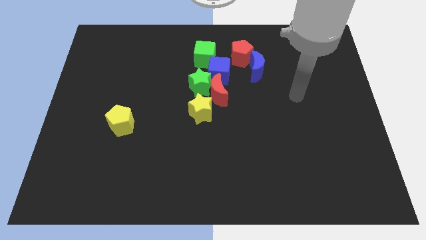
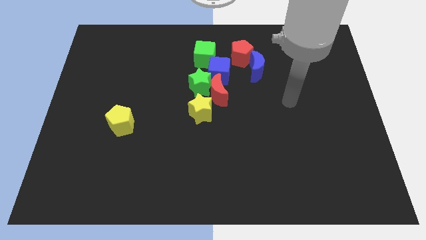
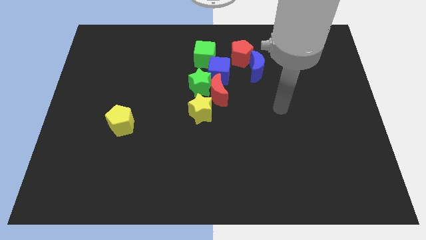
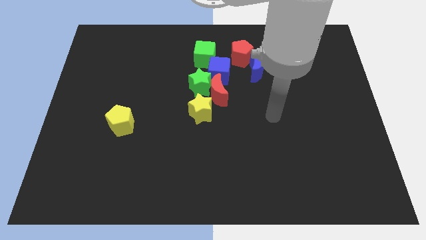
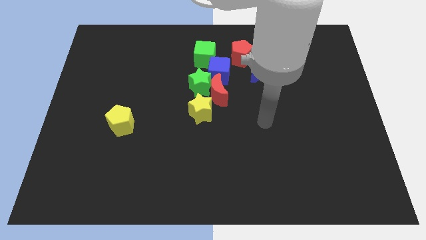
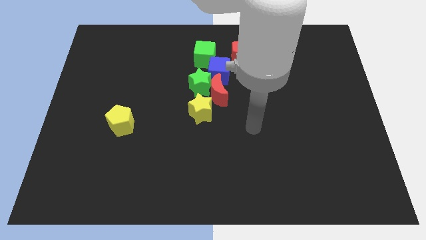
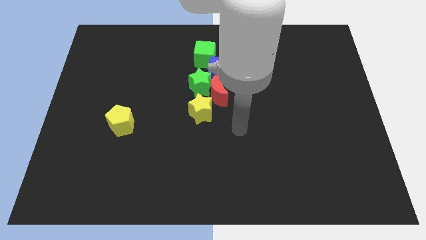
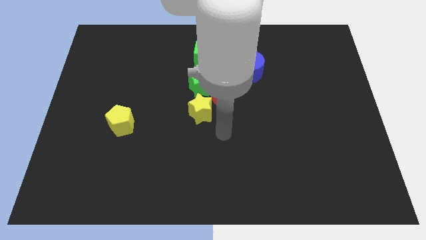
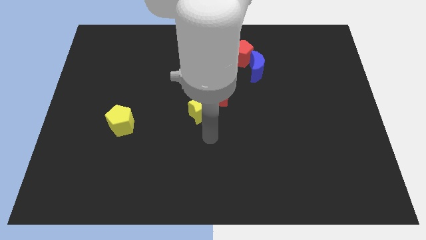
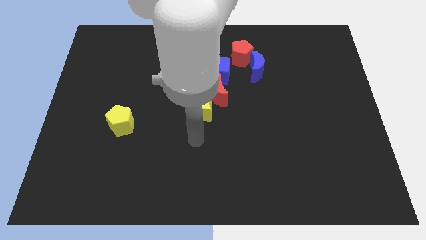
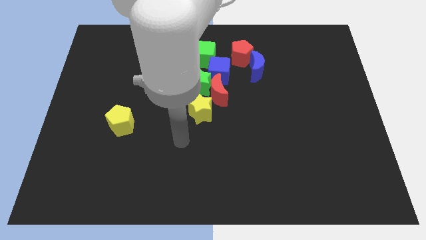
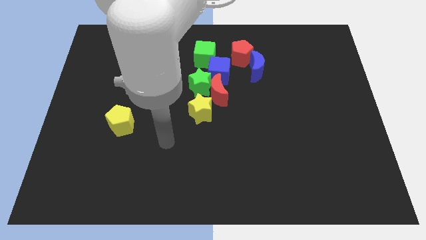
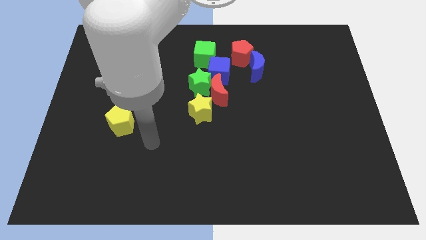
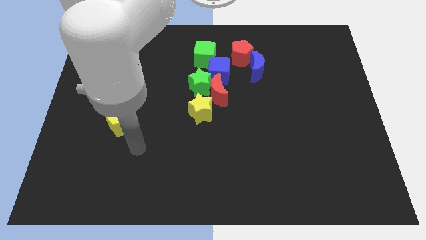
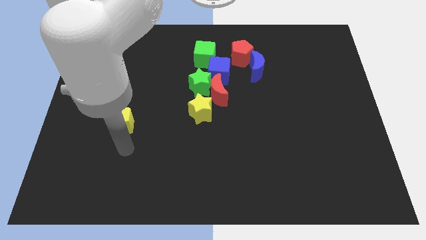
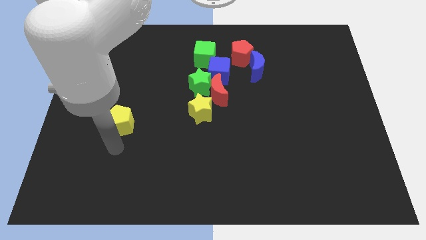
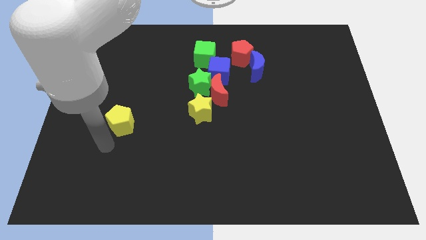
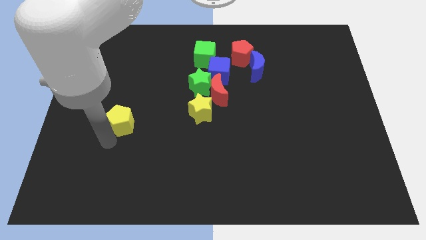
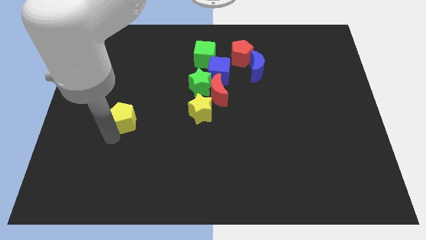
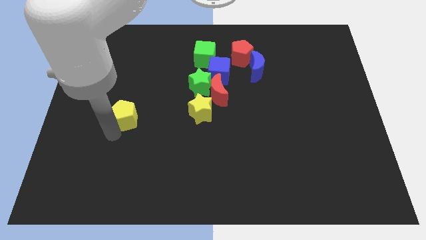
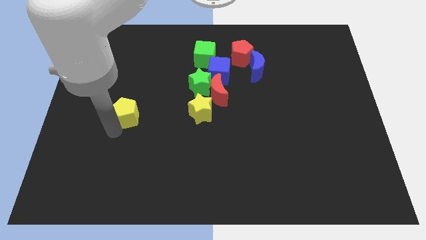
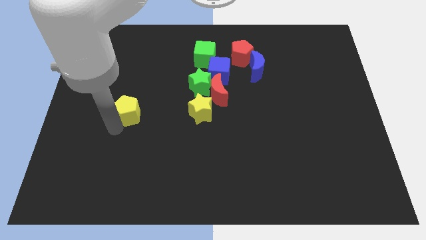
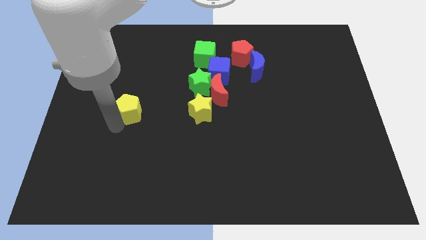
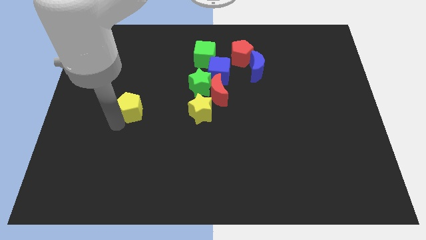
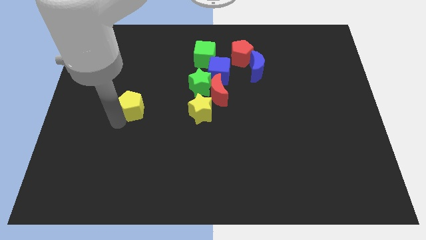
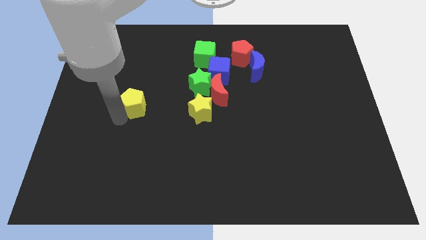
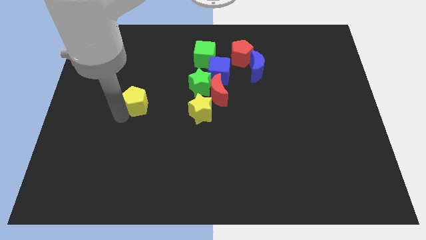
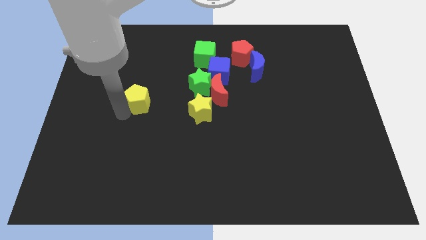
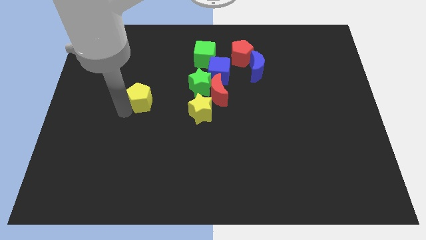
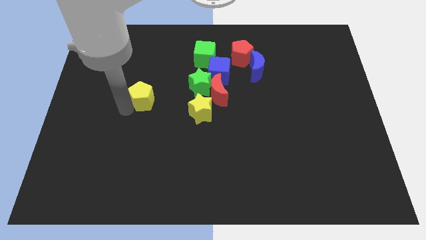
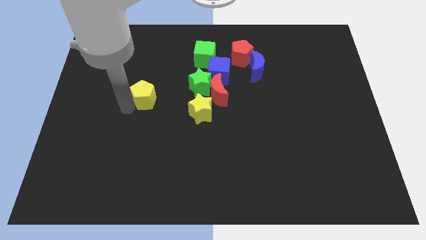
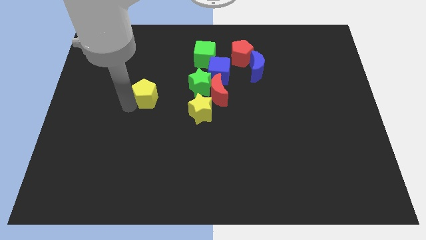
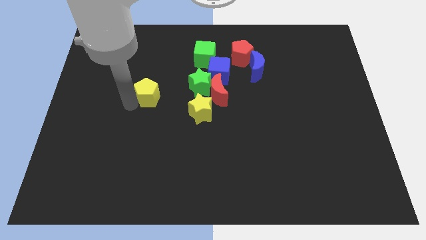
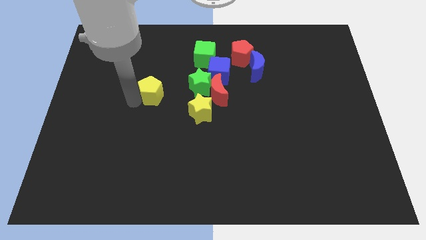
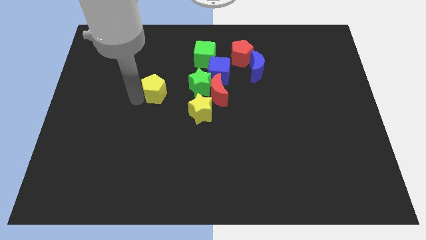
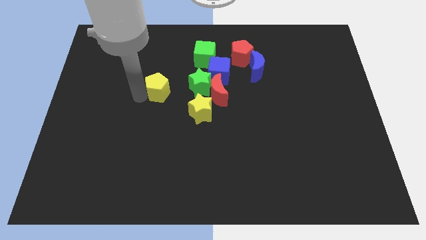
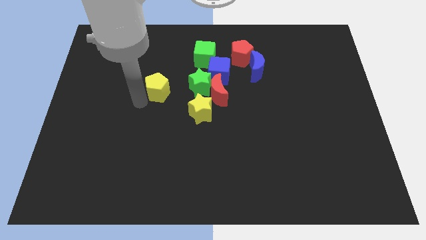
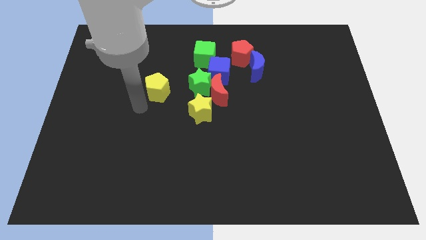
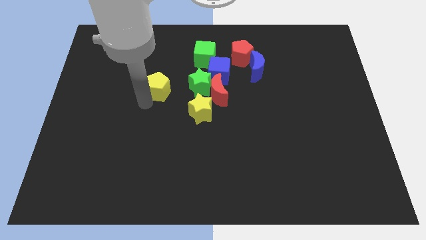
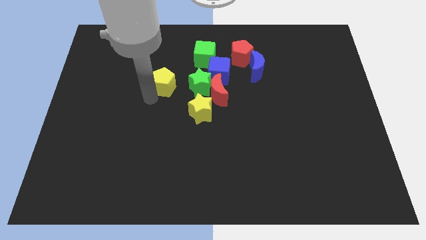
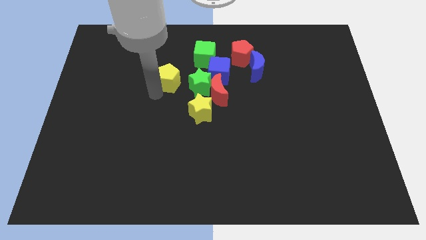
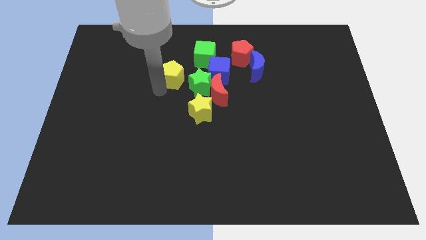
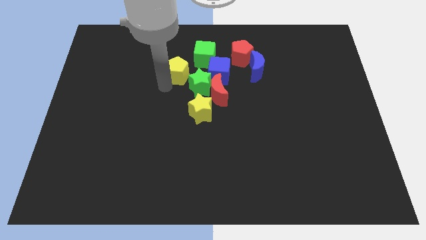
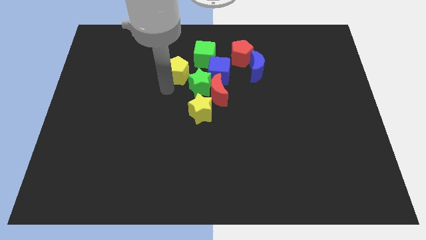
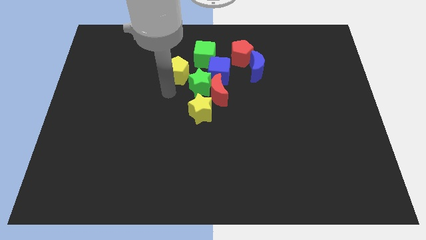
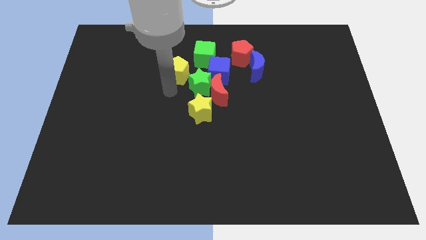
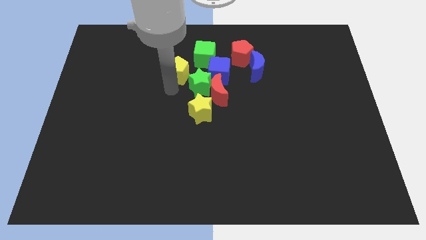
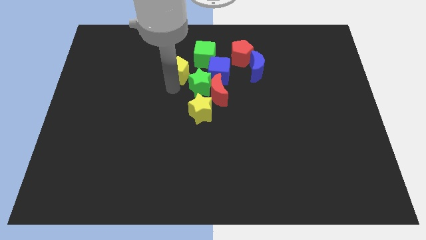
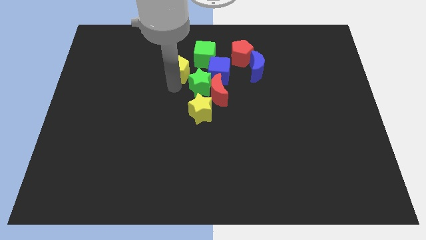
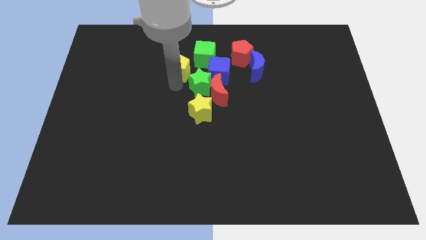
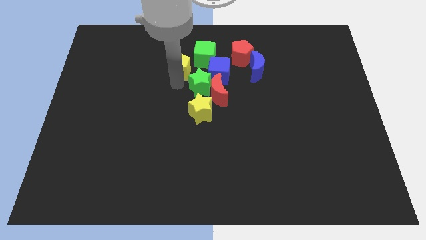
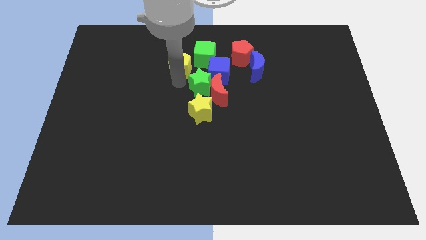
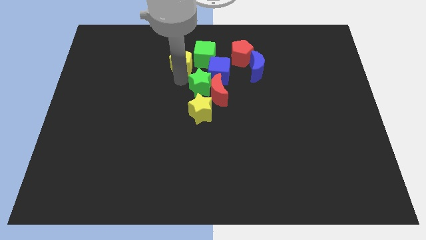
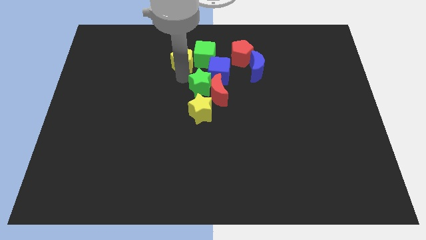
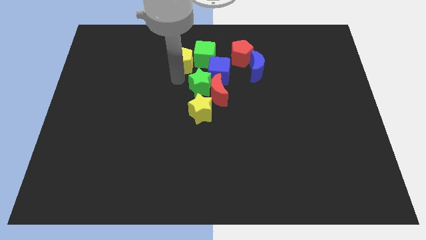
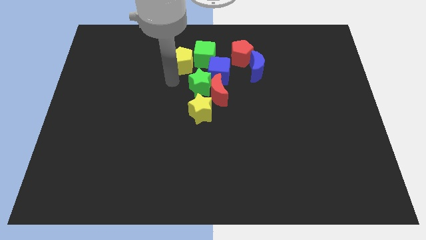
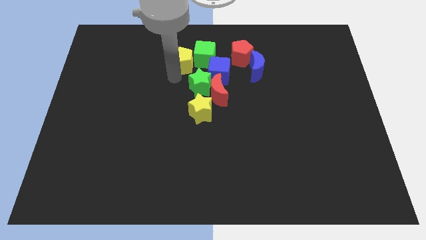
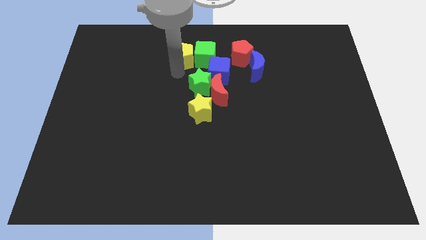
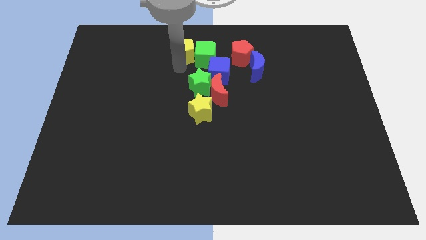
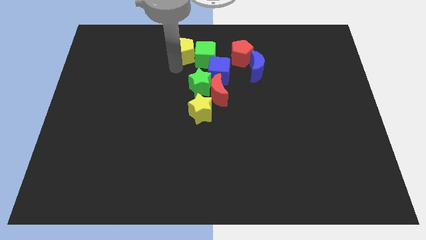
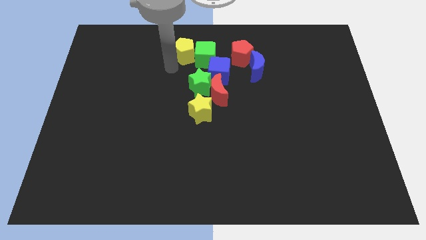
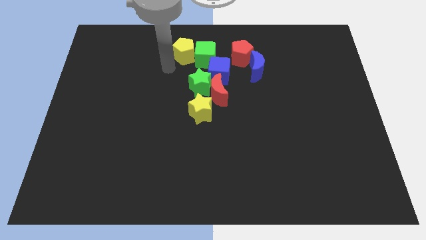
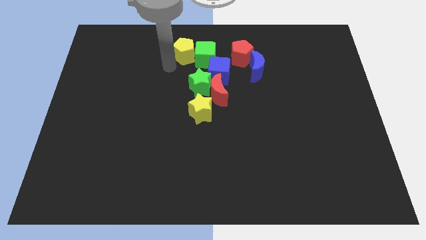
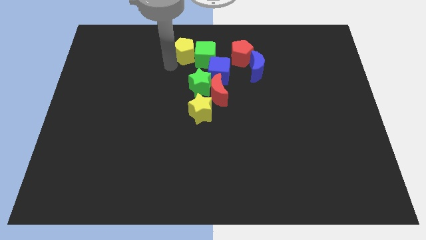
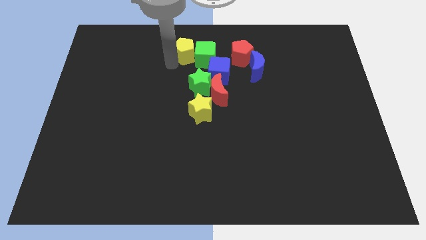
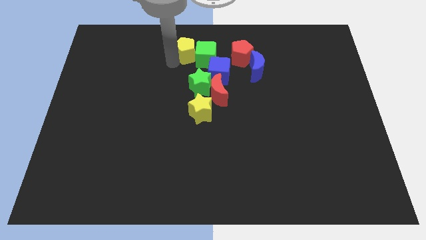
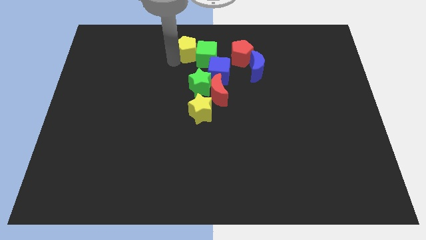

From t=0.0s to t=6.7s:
slide the yellow pentagon to the top
